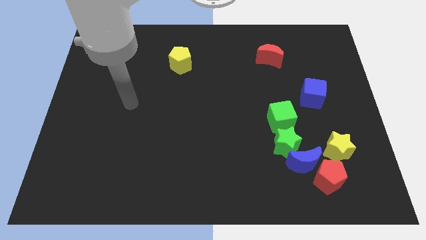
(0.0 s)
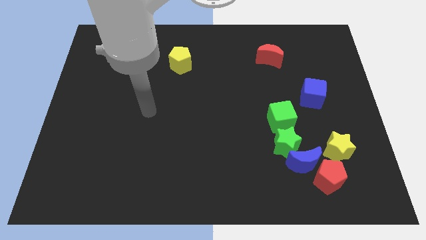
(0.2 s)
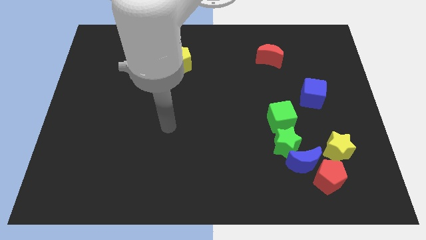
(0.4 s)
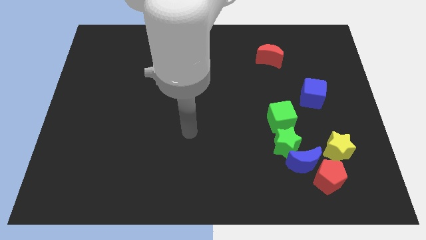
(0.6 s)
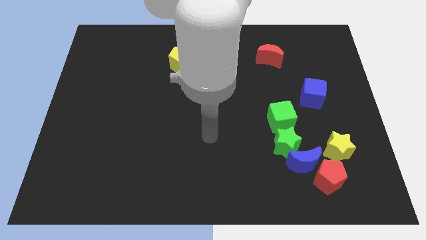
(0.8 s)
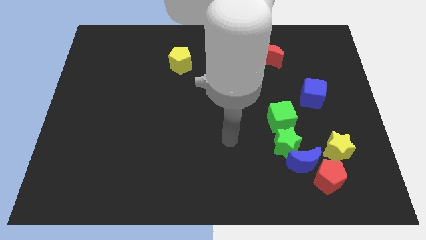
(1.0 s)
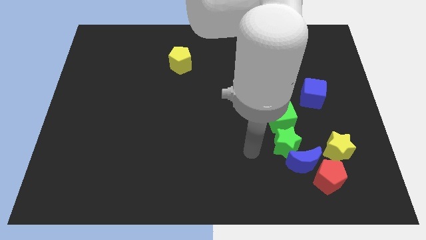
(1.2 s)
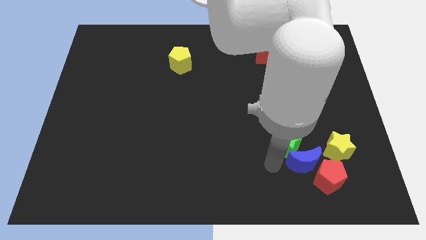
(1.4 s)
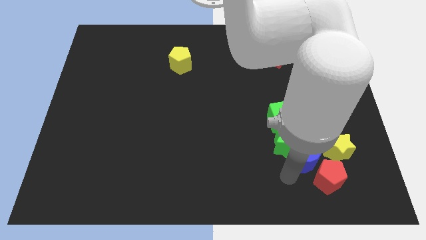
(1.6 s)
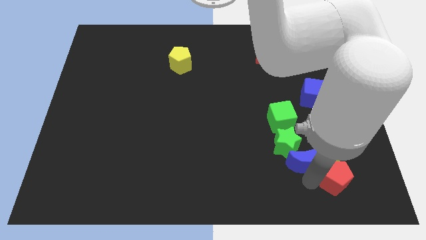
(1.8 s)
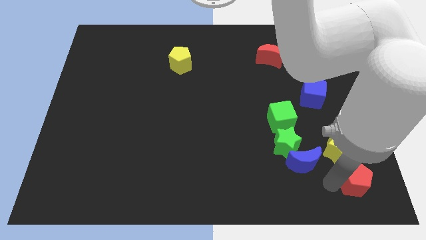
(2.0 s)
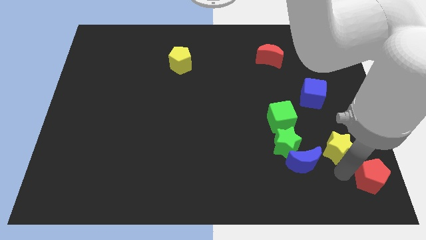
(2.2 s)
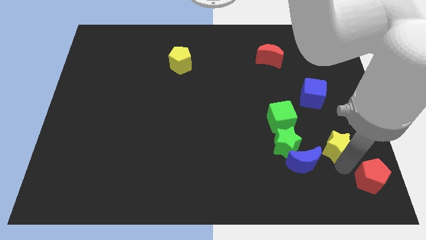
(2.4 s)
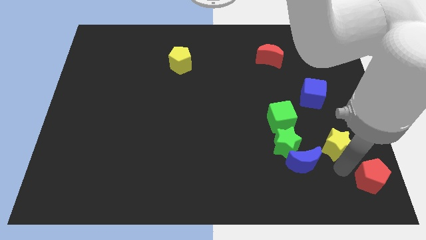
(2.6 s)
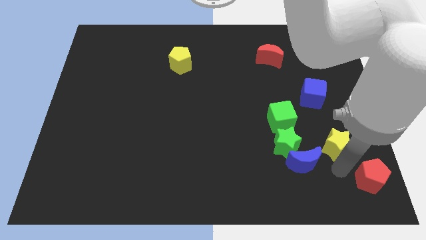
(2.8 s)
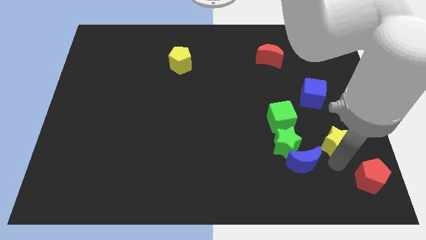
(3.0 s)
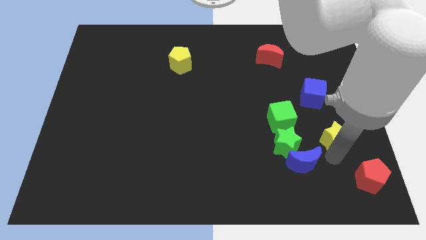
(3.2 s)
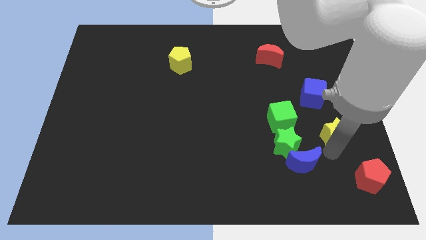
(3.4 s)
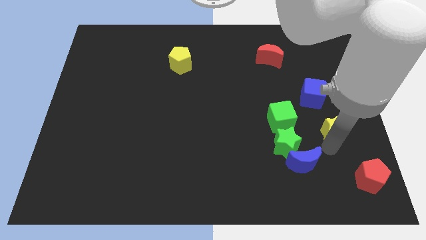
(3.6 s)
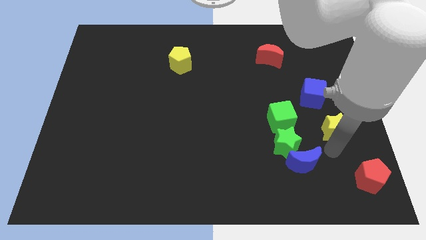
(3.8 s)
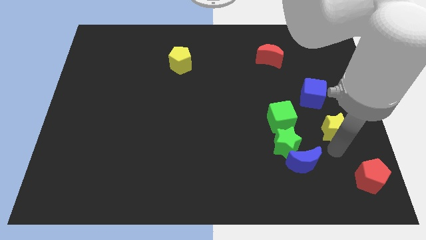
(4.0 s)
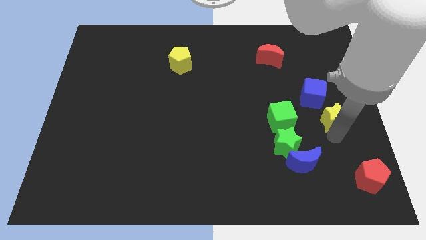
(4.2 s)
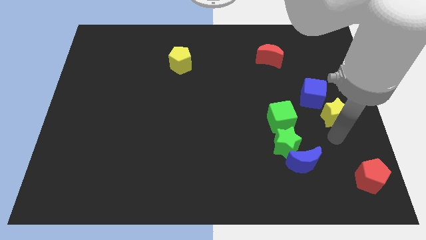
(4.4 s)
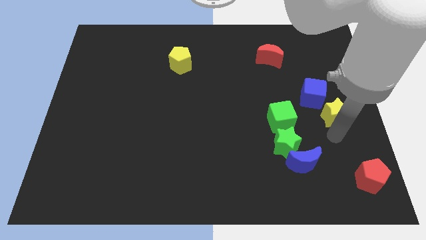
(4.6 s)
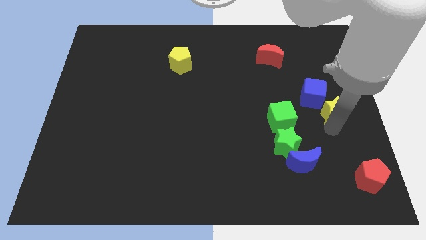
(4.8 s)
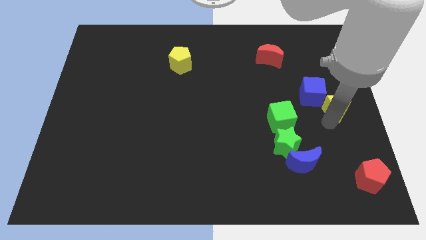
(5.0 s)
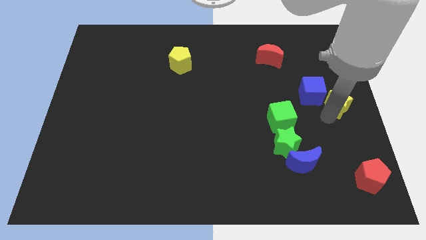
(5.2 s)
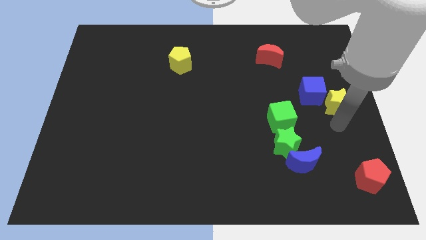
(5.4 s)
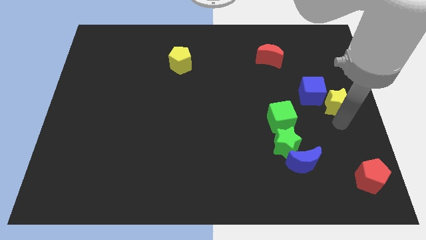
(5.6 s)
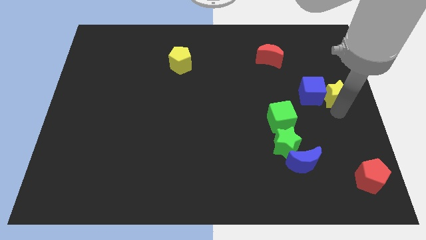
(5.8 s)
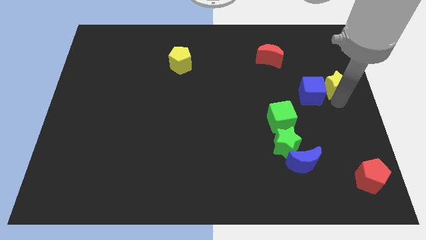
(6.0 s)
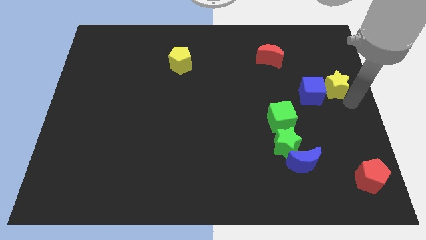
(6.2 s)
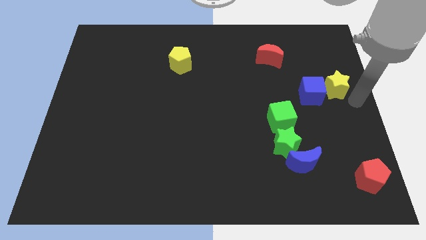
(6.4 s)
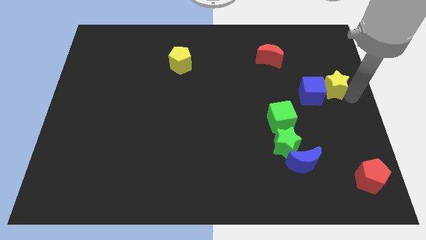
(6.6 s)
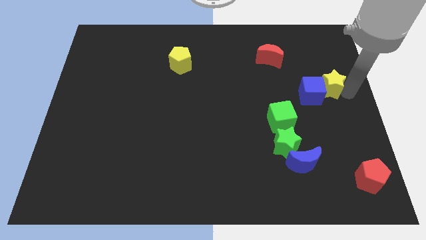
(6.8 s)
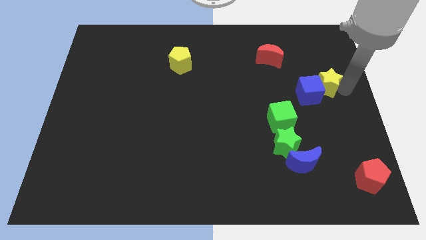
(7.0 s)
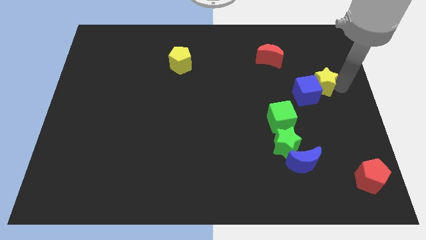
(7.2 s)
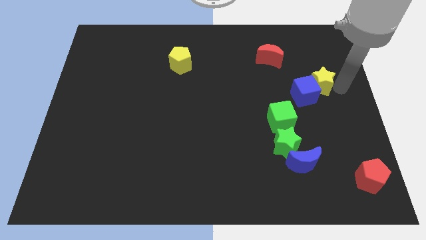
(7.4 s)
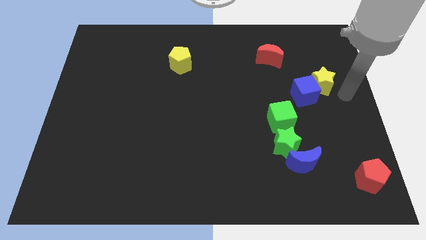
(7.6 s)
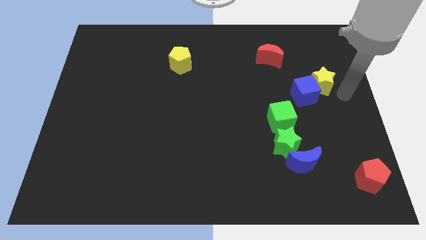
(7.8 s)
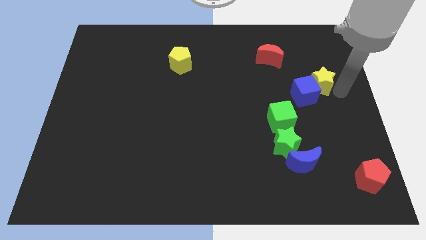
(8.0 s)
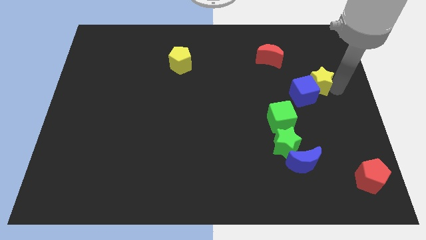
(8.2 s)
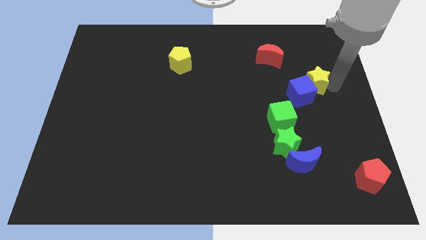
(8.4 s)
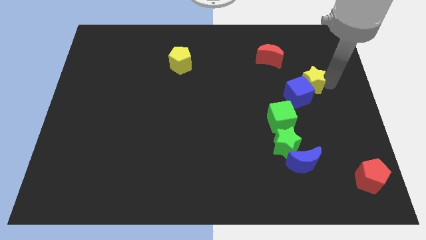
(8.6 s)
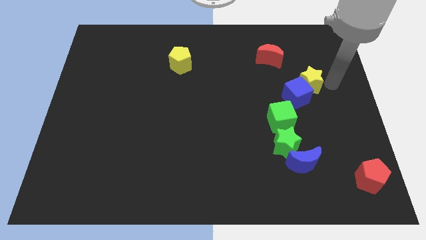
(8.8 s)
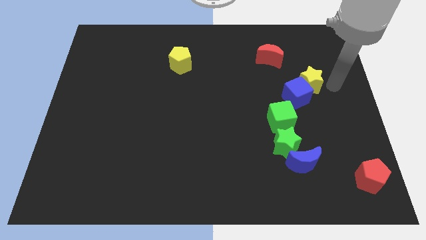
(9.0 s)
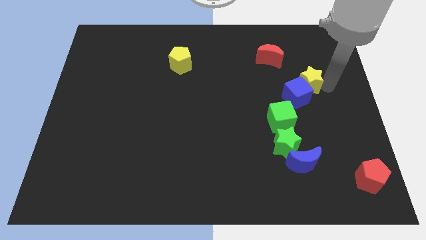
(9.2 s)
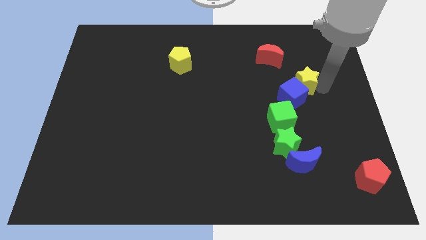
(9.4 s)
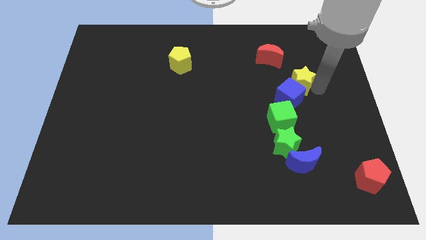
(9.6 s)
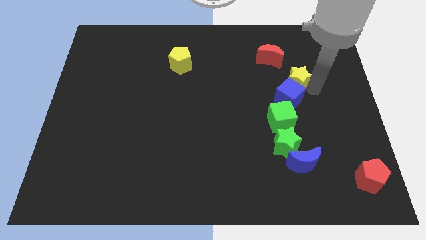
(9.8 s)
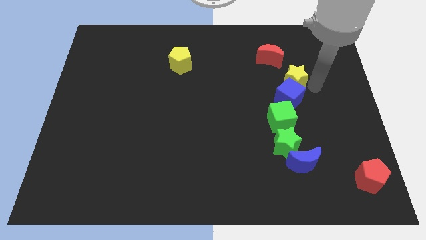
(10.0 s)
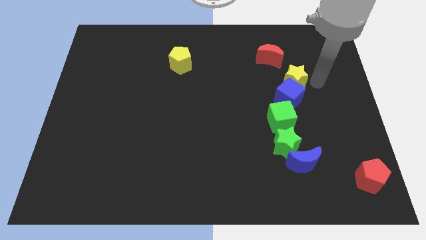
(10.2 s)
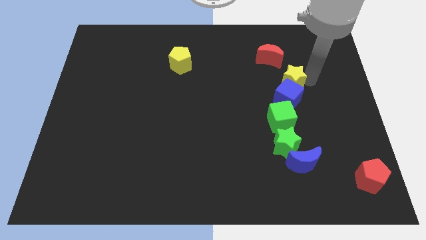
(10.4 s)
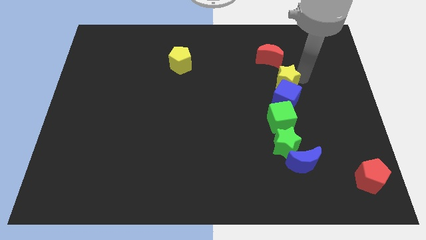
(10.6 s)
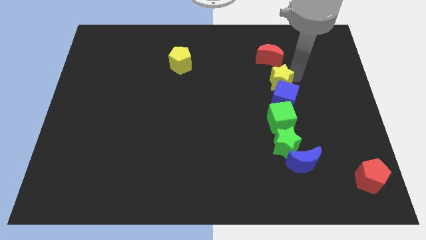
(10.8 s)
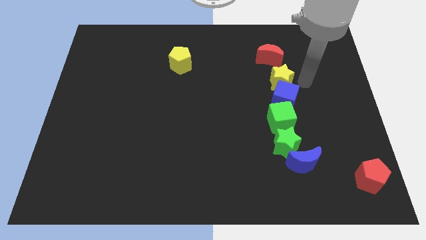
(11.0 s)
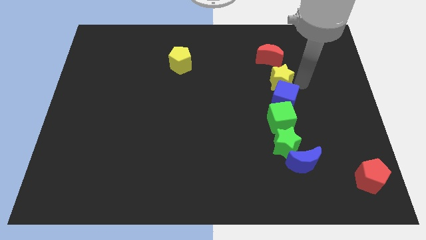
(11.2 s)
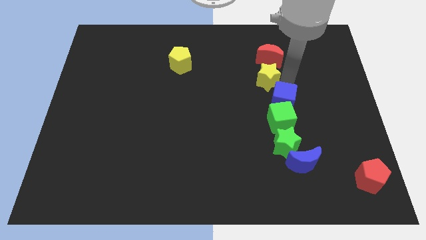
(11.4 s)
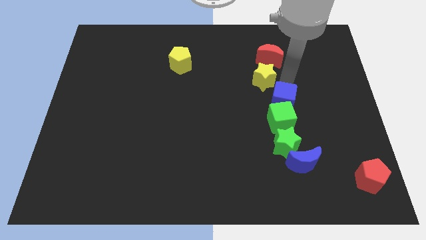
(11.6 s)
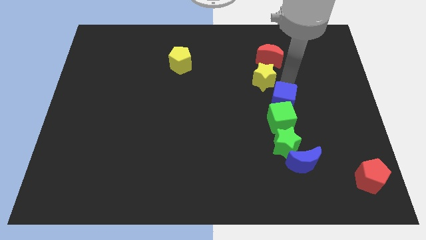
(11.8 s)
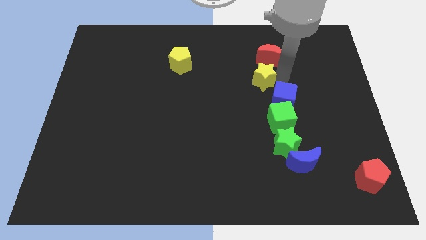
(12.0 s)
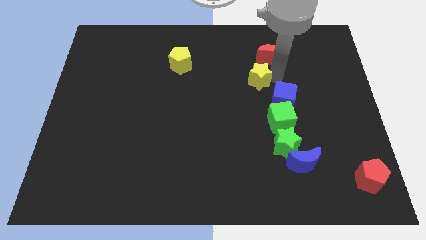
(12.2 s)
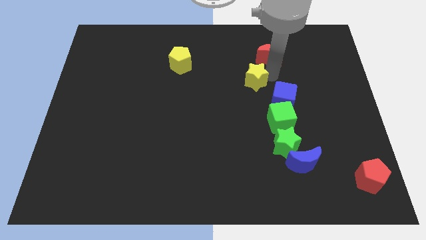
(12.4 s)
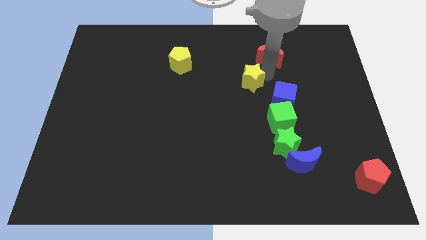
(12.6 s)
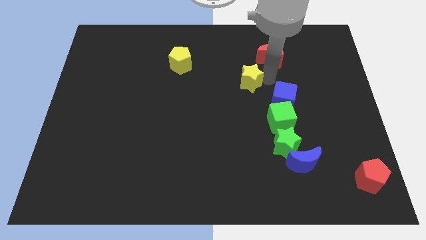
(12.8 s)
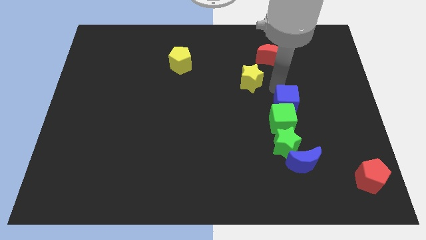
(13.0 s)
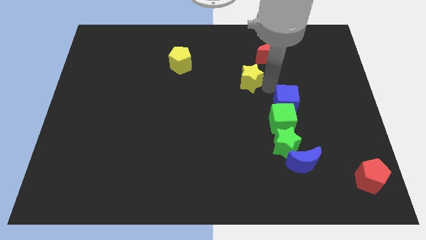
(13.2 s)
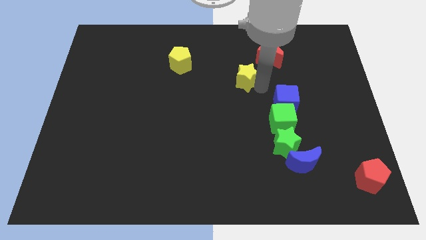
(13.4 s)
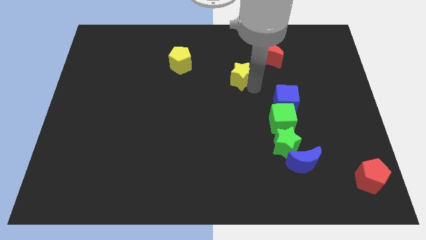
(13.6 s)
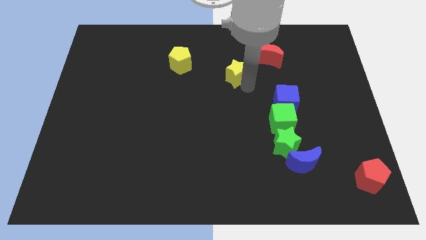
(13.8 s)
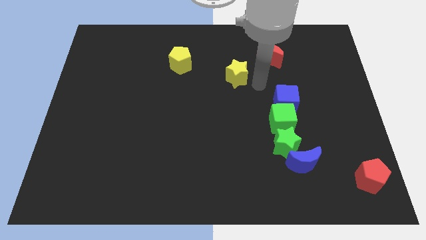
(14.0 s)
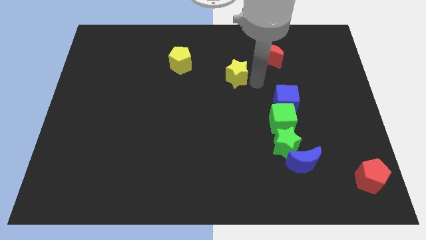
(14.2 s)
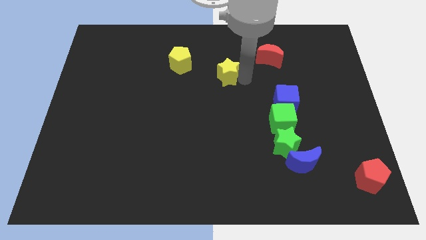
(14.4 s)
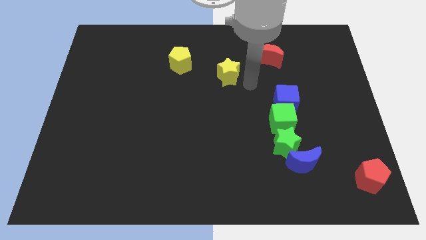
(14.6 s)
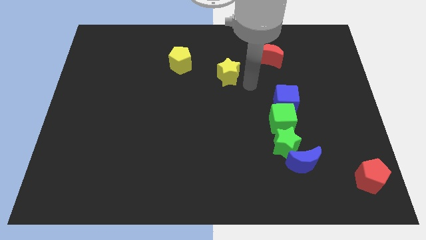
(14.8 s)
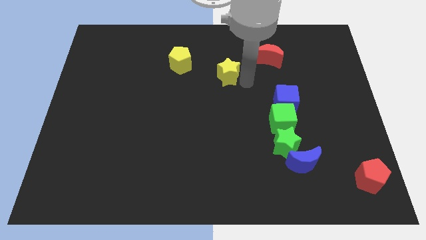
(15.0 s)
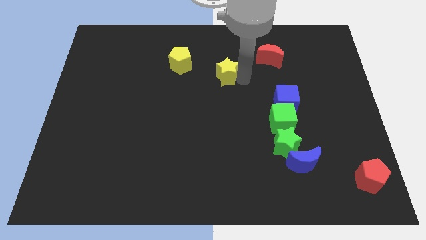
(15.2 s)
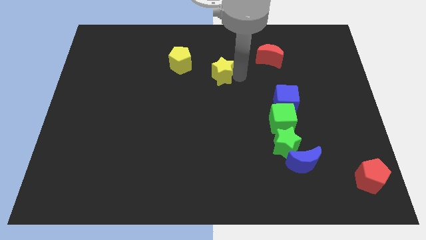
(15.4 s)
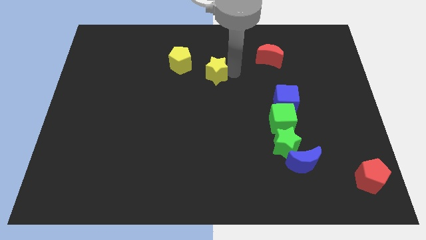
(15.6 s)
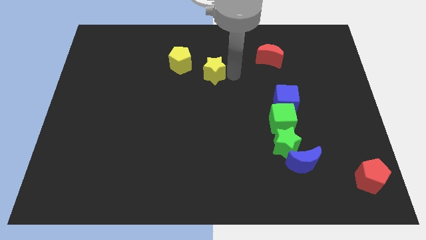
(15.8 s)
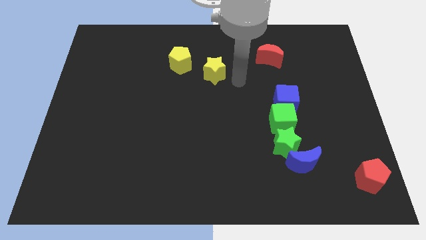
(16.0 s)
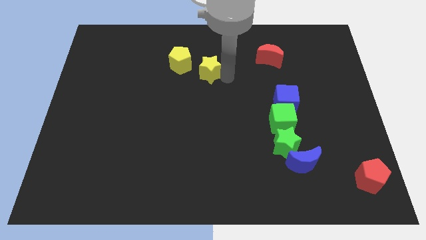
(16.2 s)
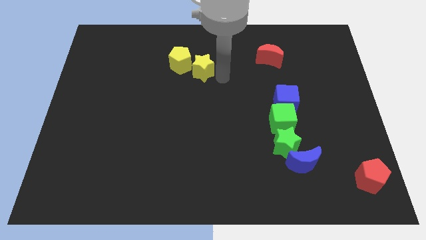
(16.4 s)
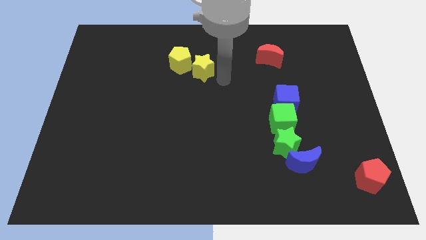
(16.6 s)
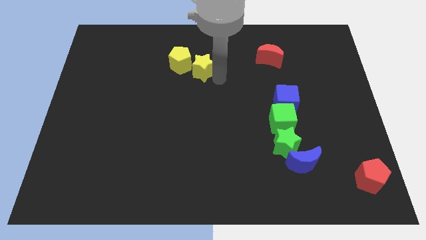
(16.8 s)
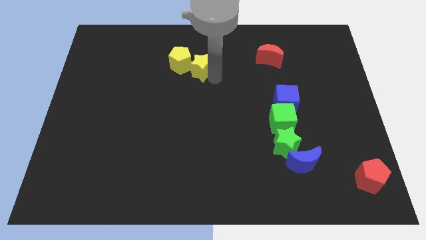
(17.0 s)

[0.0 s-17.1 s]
put the yellow star to the yellow pentagon
